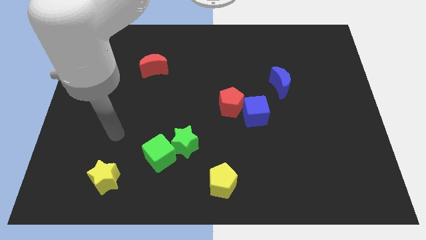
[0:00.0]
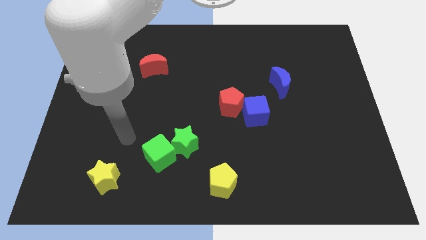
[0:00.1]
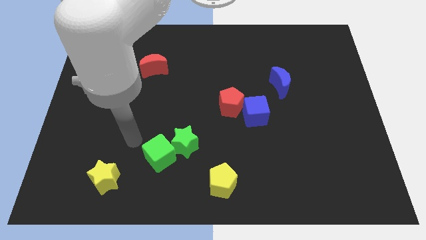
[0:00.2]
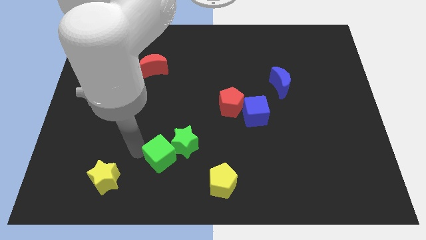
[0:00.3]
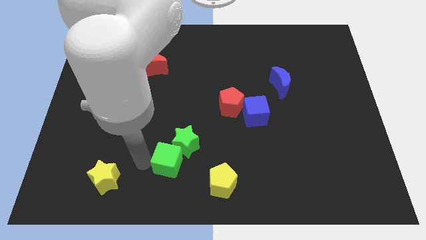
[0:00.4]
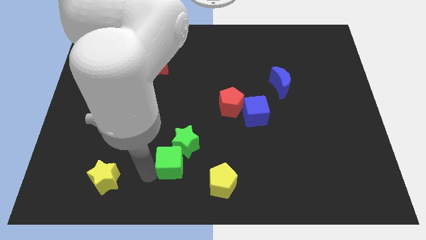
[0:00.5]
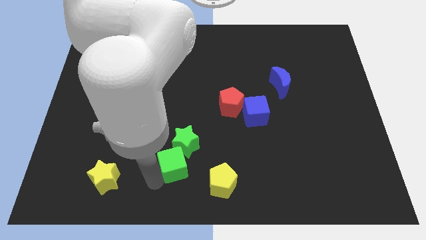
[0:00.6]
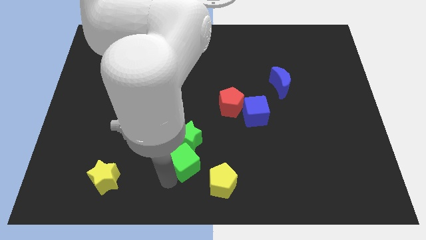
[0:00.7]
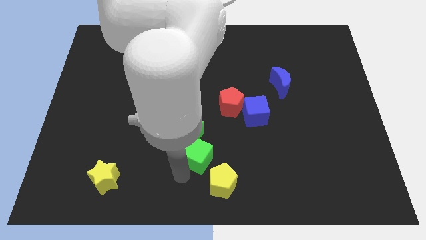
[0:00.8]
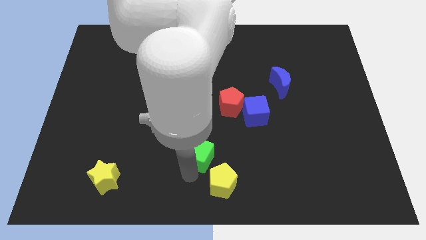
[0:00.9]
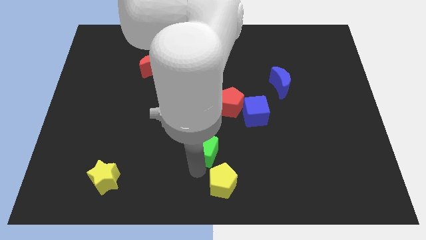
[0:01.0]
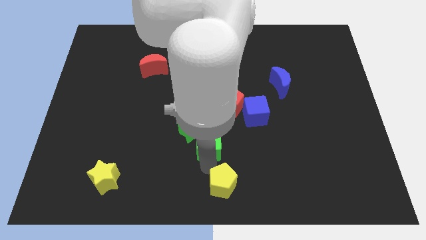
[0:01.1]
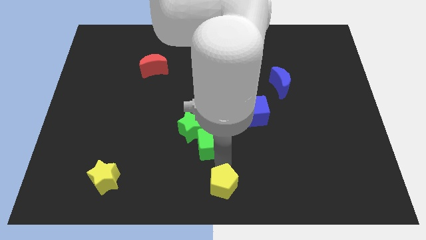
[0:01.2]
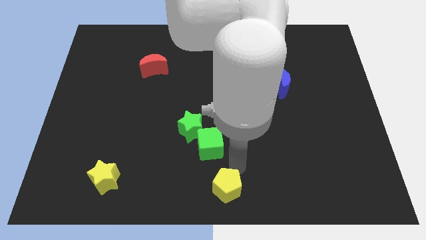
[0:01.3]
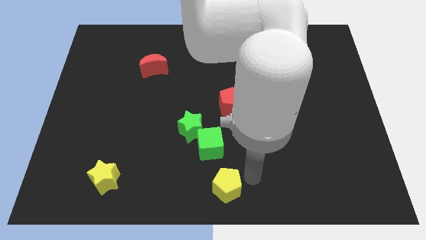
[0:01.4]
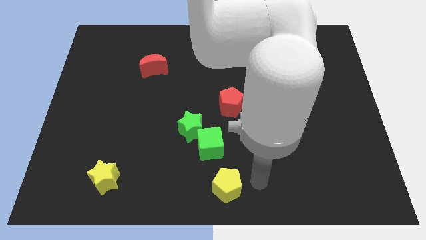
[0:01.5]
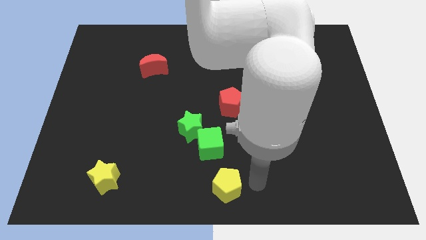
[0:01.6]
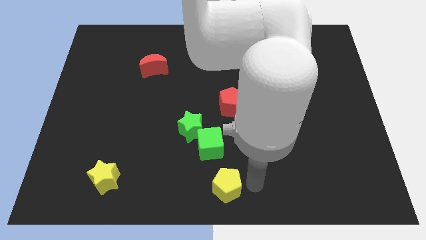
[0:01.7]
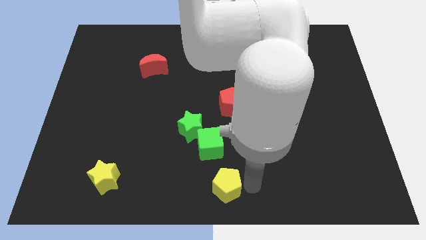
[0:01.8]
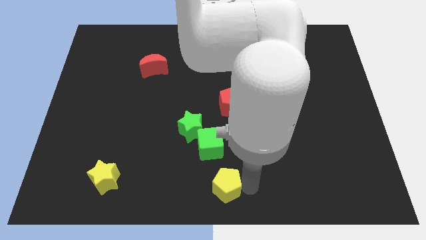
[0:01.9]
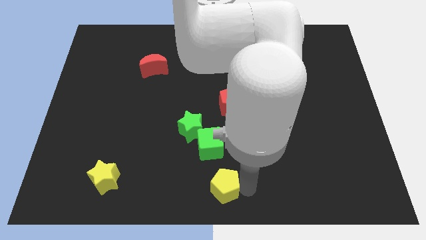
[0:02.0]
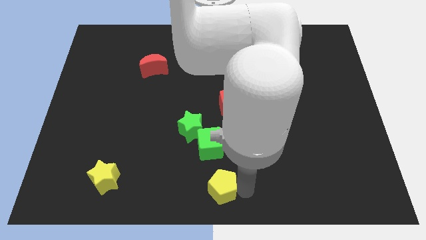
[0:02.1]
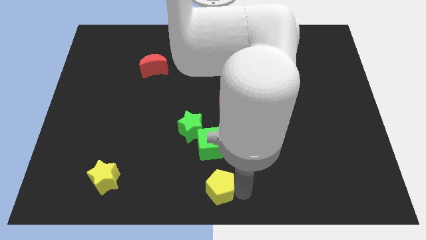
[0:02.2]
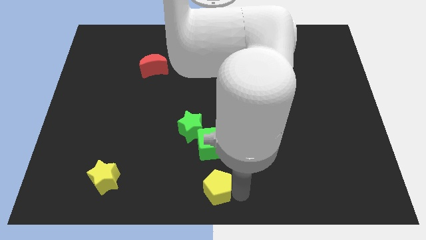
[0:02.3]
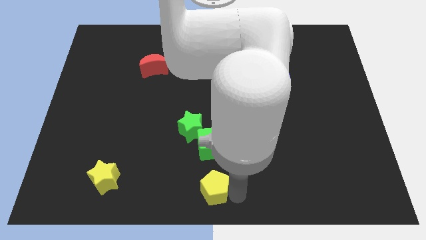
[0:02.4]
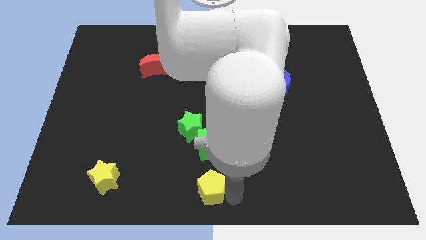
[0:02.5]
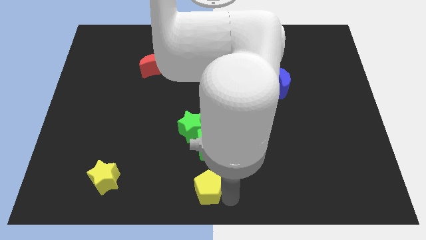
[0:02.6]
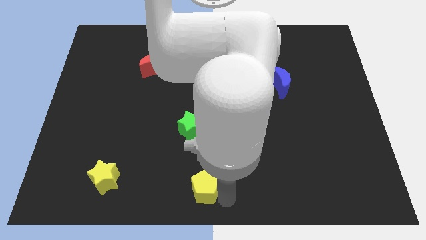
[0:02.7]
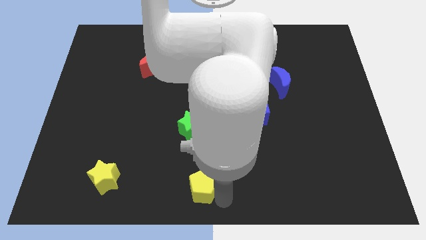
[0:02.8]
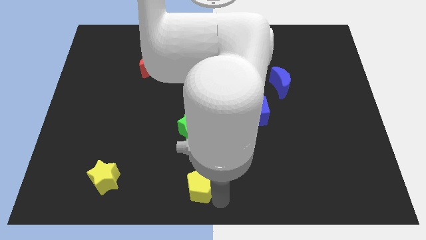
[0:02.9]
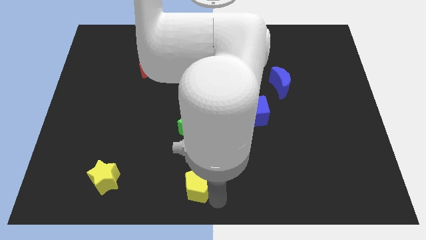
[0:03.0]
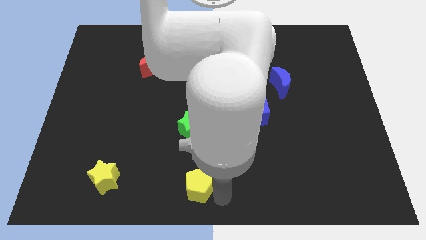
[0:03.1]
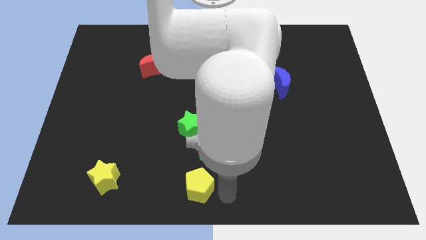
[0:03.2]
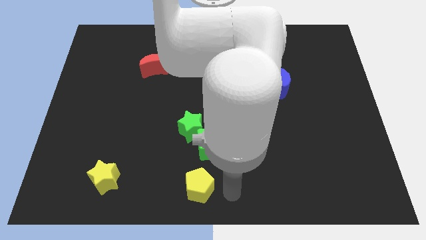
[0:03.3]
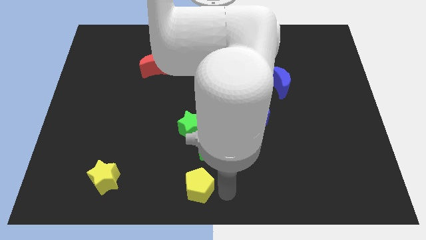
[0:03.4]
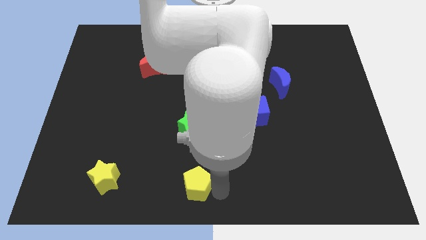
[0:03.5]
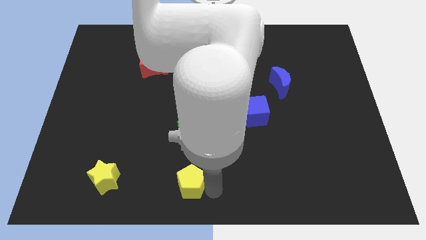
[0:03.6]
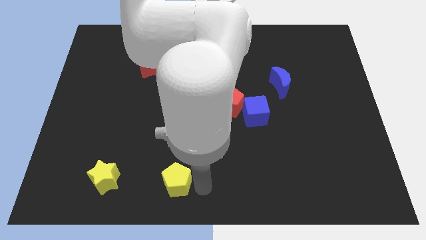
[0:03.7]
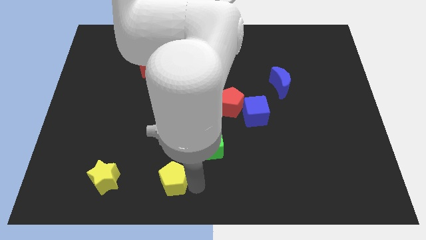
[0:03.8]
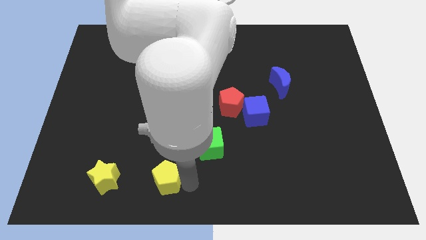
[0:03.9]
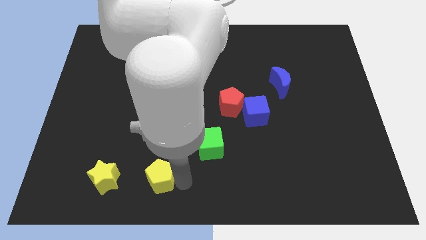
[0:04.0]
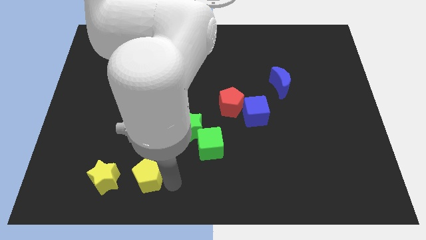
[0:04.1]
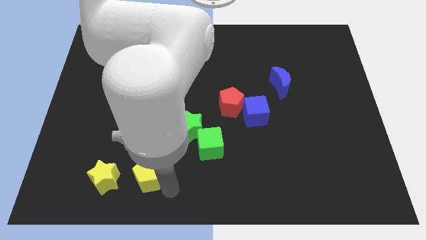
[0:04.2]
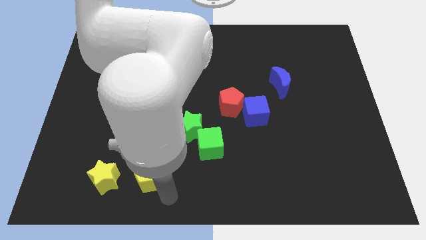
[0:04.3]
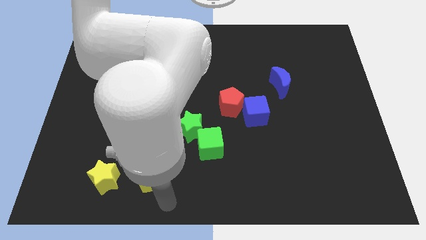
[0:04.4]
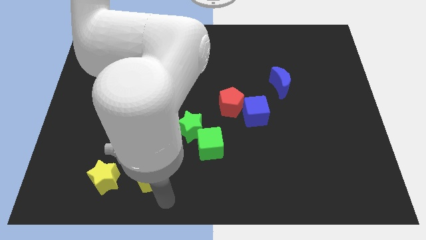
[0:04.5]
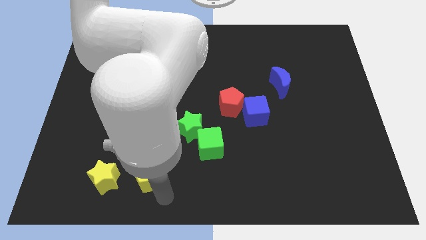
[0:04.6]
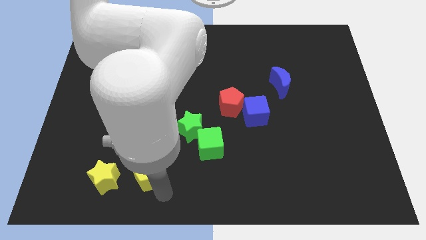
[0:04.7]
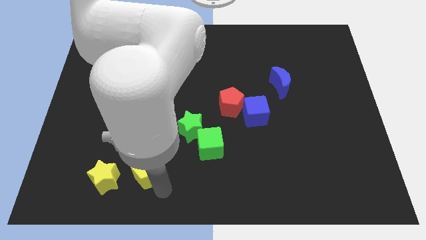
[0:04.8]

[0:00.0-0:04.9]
put the yellow pentagon diagonally up and to the right of the yellow star

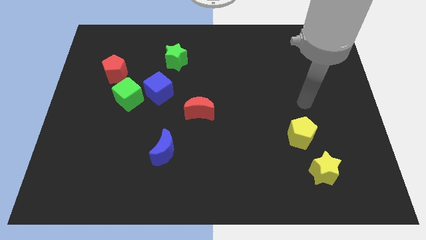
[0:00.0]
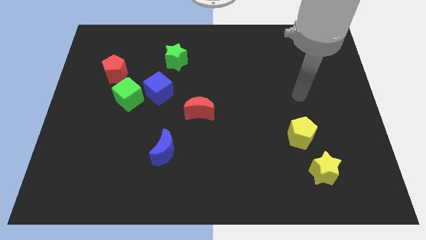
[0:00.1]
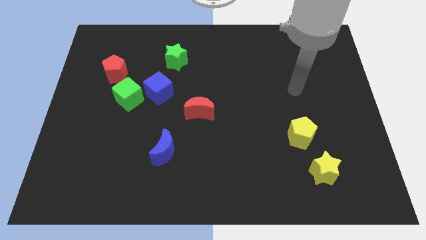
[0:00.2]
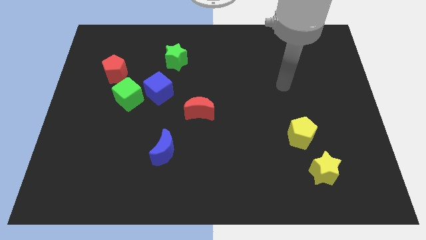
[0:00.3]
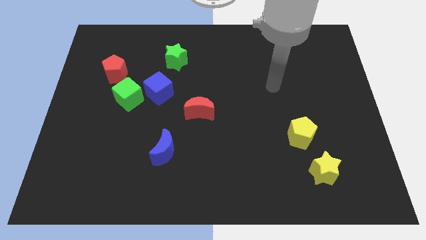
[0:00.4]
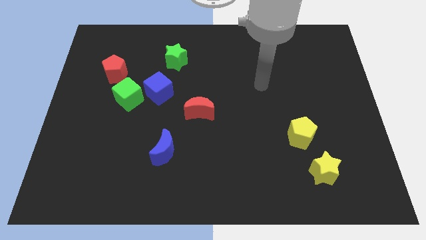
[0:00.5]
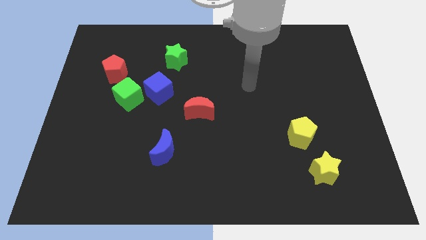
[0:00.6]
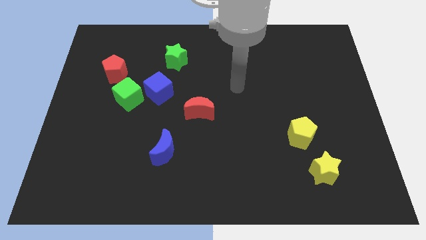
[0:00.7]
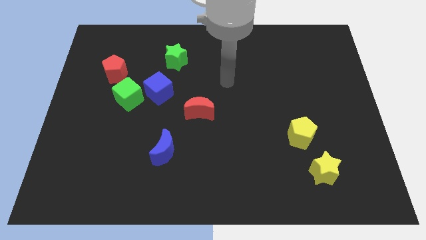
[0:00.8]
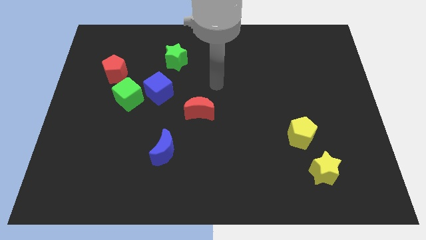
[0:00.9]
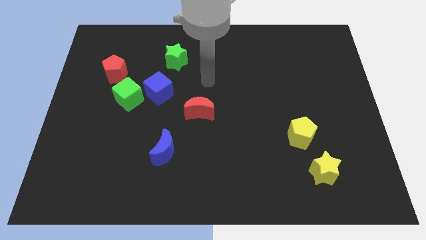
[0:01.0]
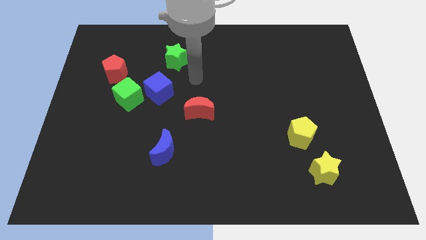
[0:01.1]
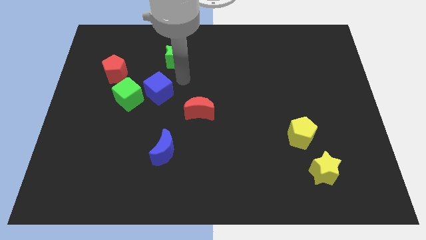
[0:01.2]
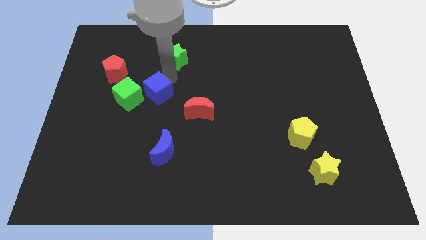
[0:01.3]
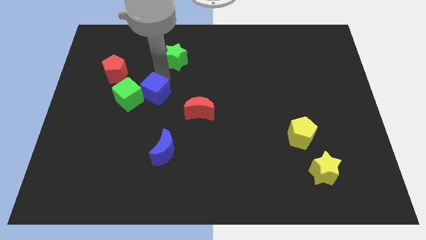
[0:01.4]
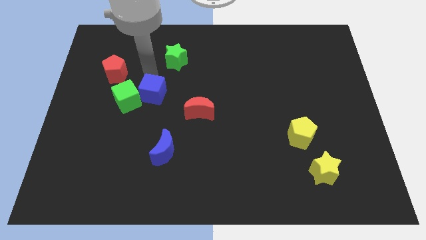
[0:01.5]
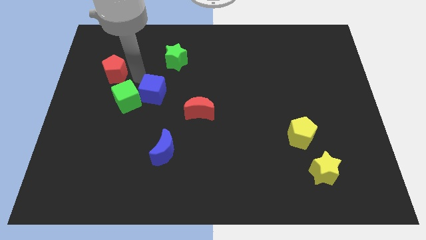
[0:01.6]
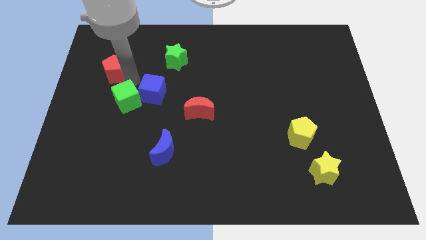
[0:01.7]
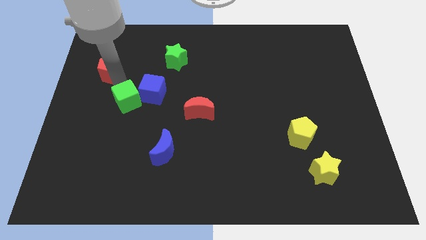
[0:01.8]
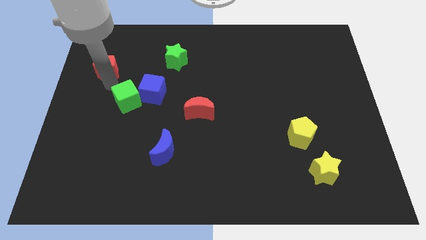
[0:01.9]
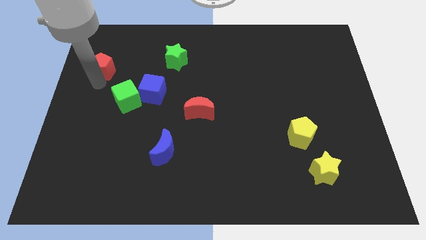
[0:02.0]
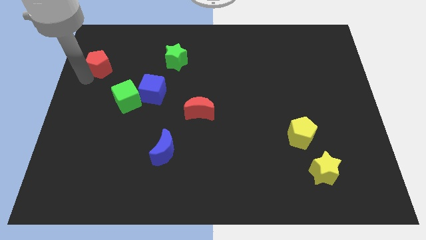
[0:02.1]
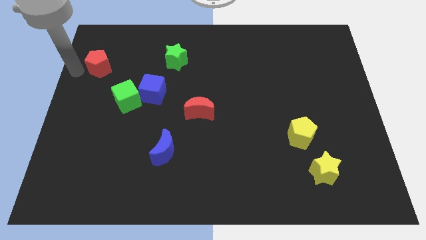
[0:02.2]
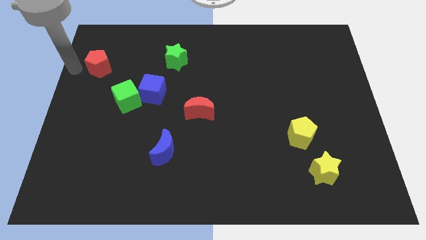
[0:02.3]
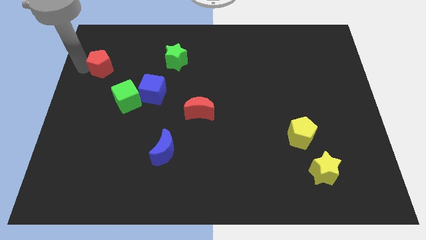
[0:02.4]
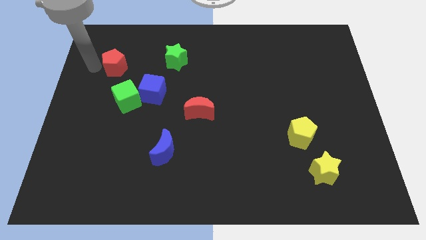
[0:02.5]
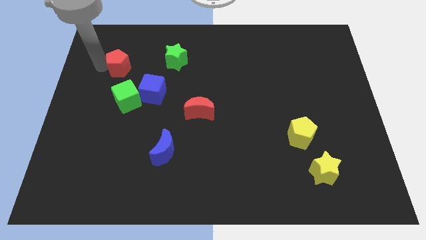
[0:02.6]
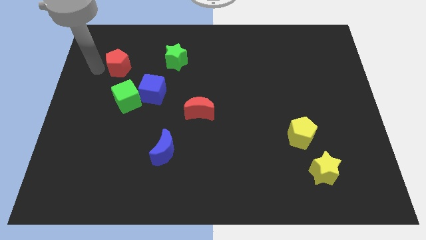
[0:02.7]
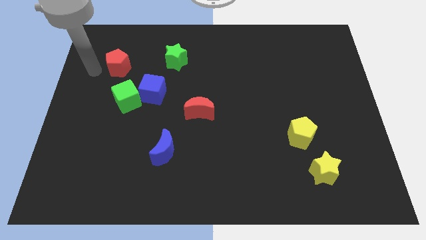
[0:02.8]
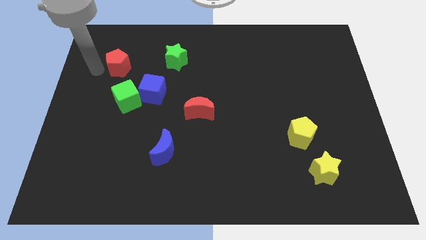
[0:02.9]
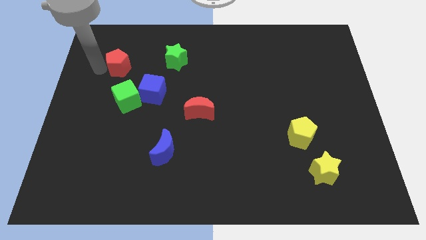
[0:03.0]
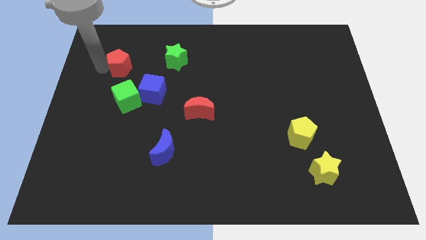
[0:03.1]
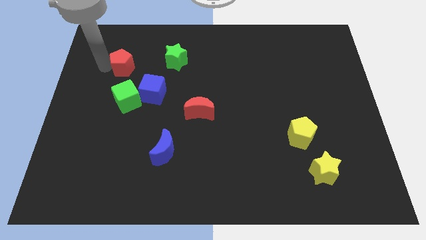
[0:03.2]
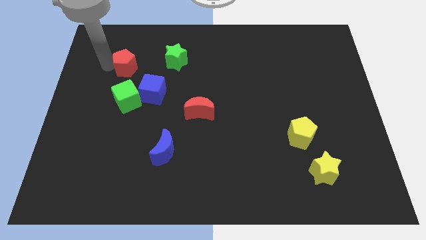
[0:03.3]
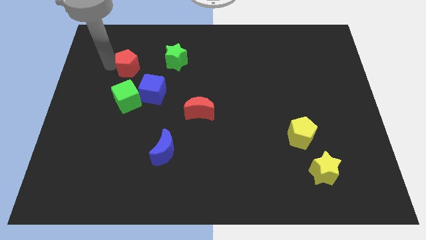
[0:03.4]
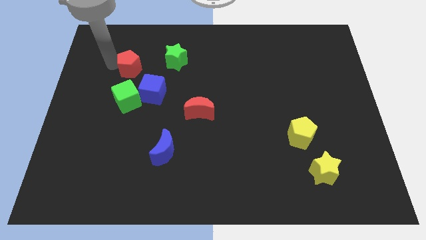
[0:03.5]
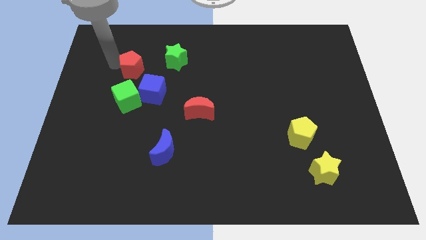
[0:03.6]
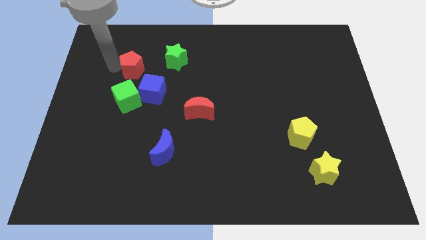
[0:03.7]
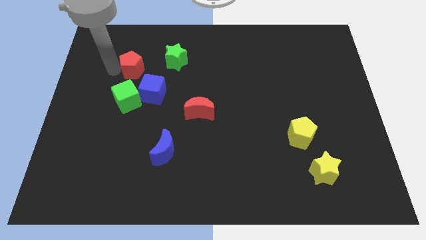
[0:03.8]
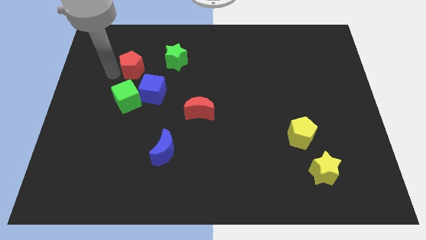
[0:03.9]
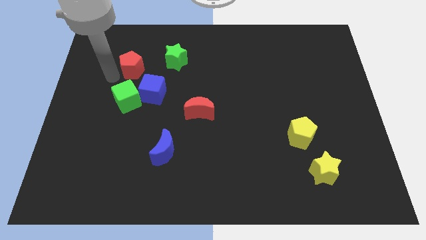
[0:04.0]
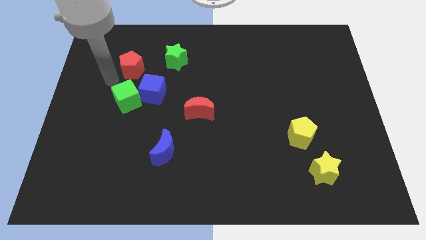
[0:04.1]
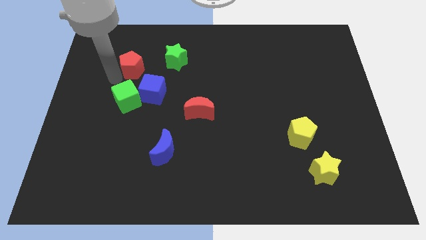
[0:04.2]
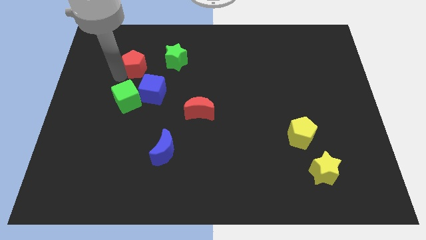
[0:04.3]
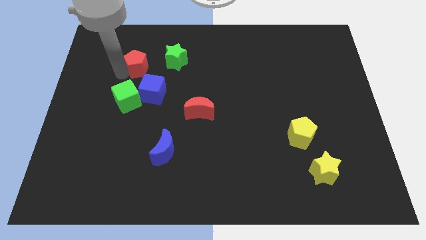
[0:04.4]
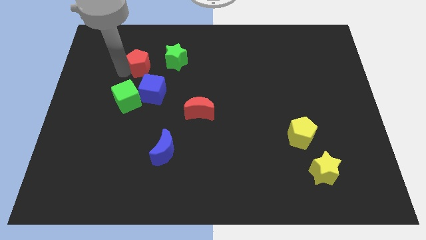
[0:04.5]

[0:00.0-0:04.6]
move the red pentagon to the top side of the blue cube
